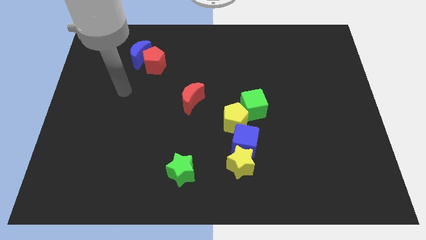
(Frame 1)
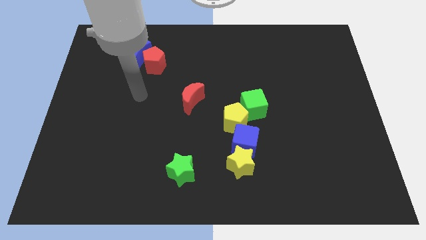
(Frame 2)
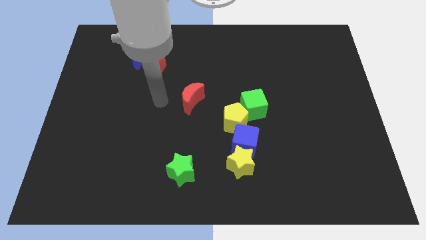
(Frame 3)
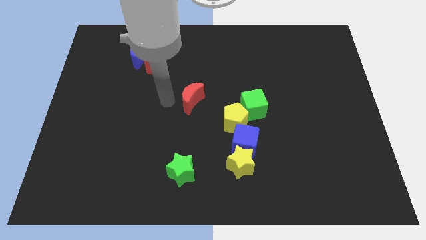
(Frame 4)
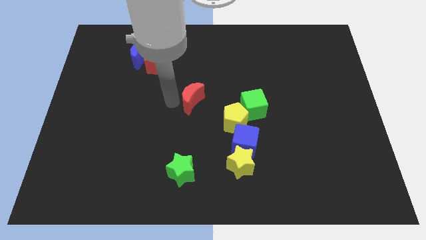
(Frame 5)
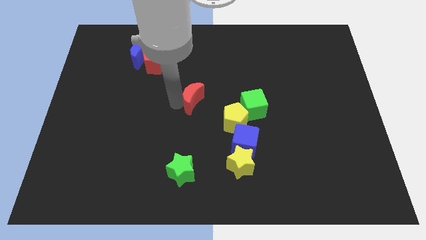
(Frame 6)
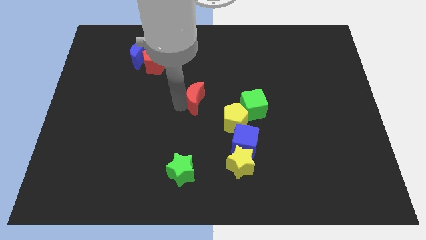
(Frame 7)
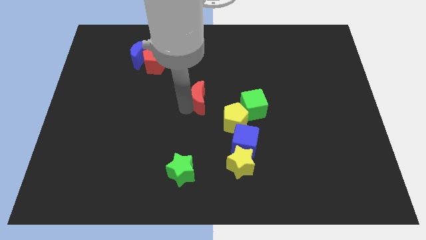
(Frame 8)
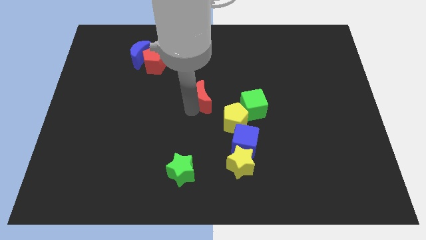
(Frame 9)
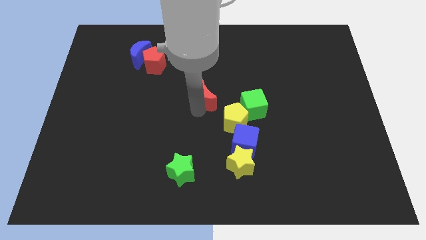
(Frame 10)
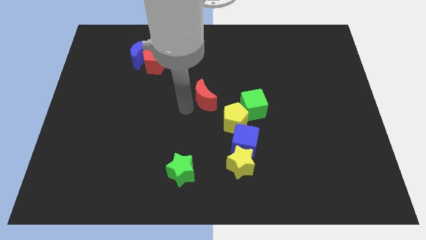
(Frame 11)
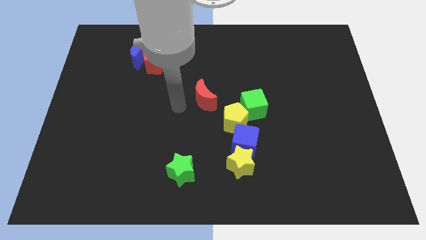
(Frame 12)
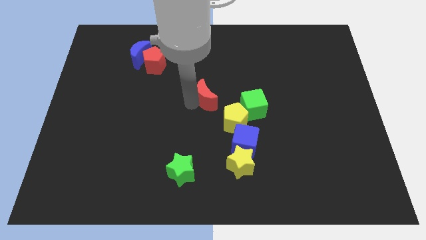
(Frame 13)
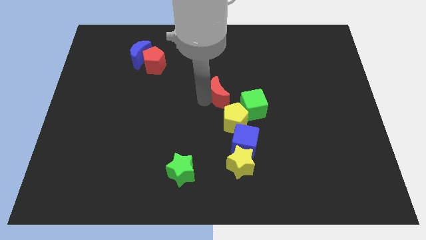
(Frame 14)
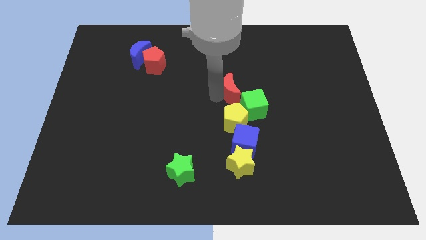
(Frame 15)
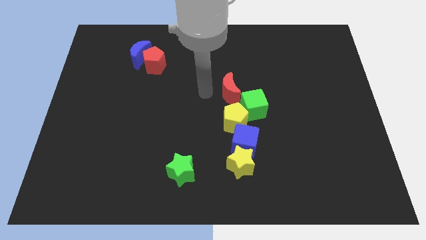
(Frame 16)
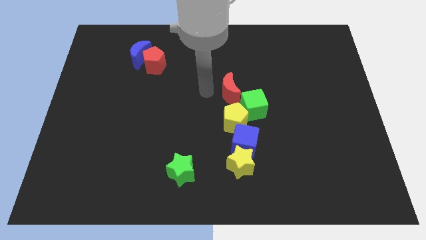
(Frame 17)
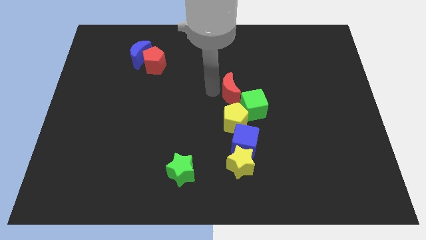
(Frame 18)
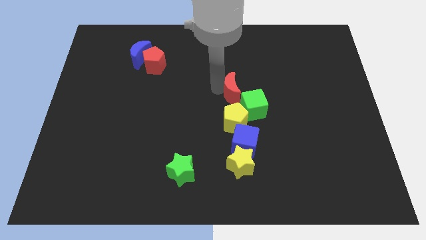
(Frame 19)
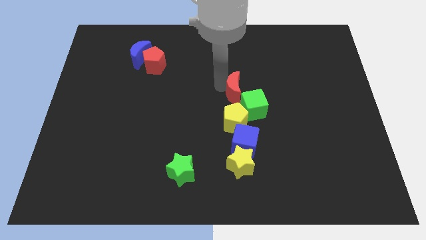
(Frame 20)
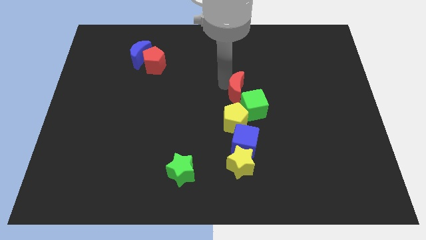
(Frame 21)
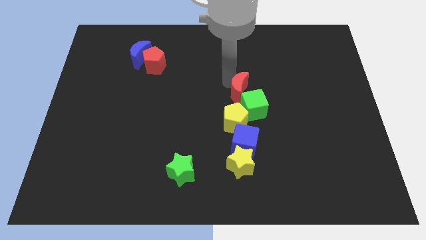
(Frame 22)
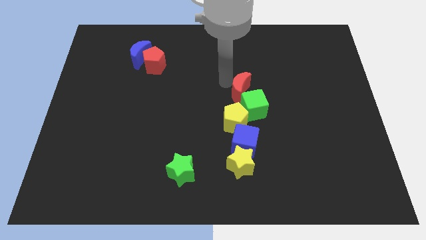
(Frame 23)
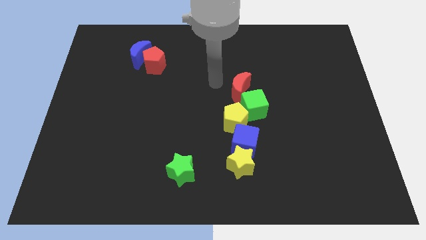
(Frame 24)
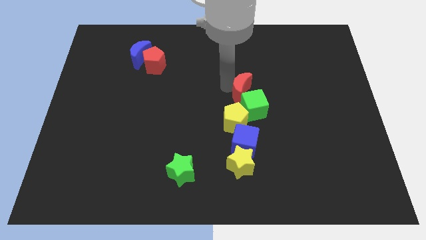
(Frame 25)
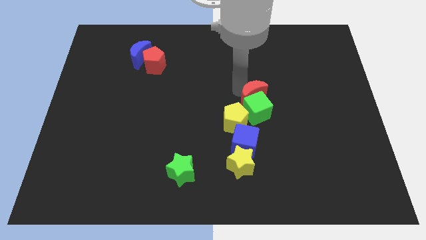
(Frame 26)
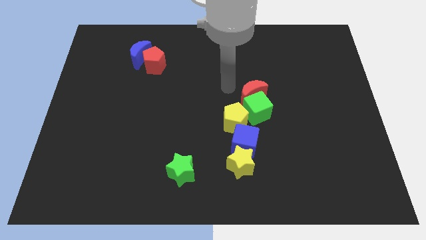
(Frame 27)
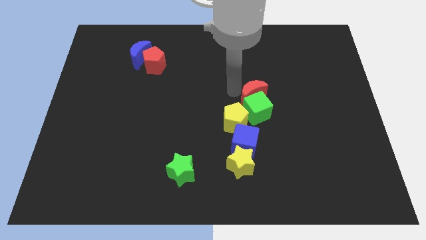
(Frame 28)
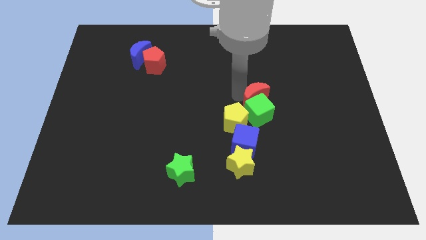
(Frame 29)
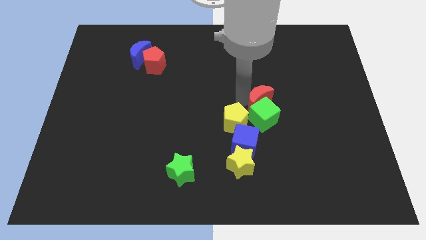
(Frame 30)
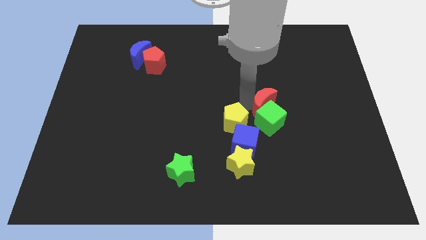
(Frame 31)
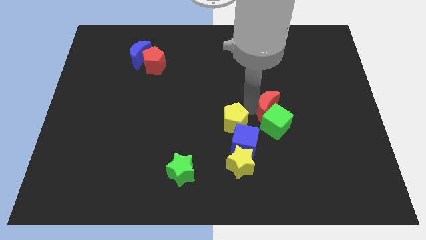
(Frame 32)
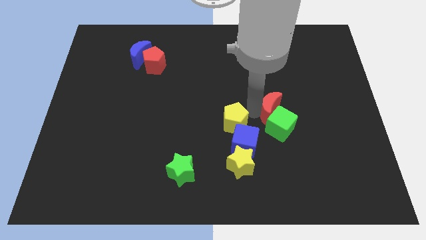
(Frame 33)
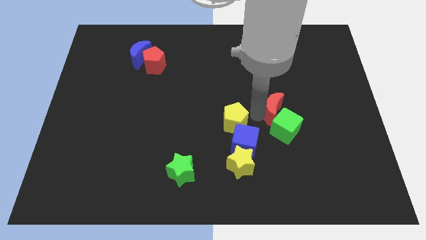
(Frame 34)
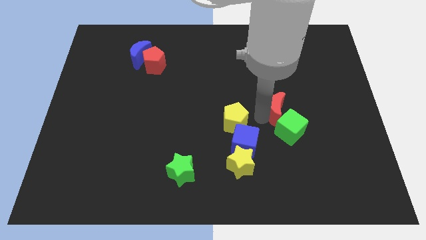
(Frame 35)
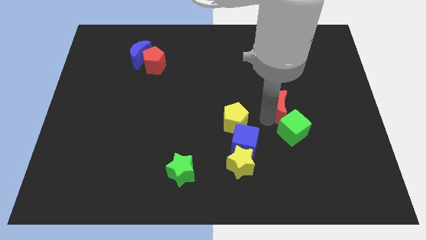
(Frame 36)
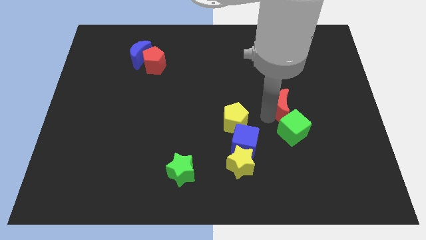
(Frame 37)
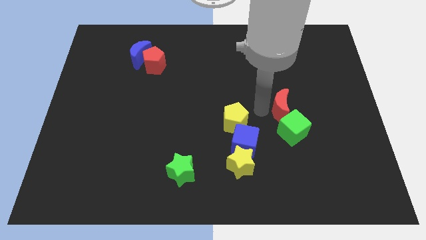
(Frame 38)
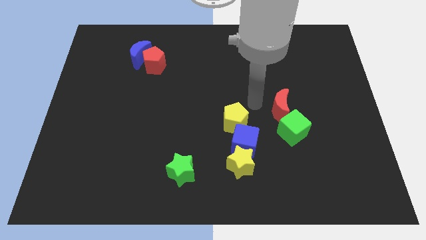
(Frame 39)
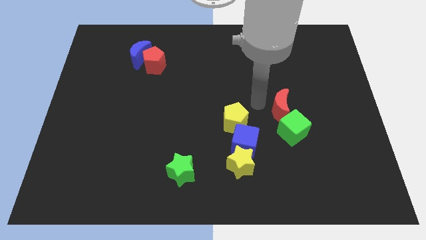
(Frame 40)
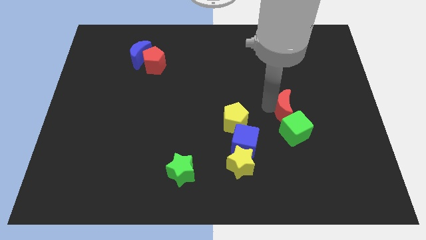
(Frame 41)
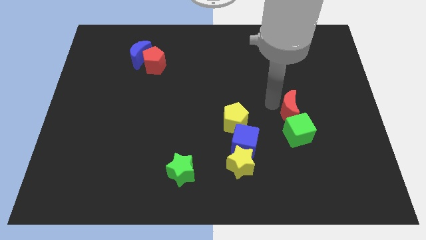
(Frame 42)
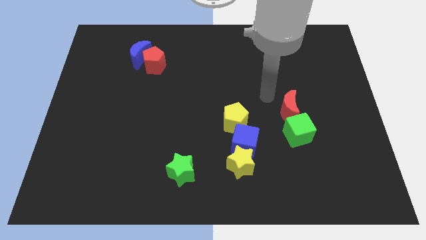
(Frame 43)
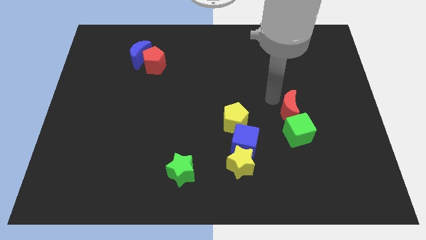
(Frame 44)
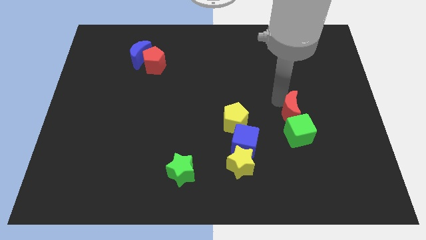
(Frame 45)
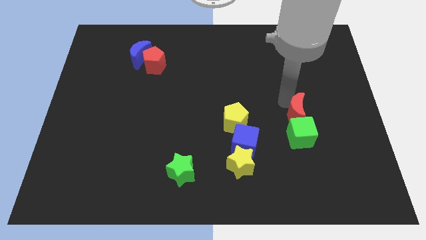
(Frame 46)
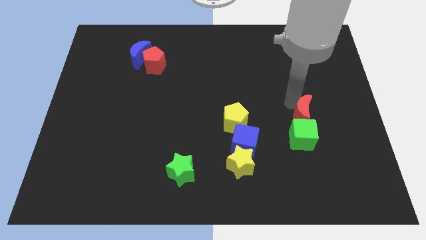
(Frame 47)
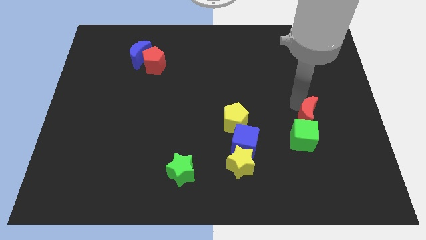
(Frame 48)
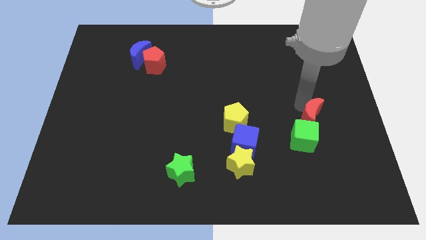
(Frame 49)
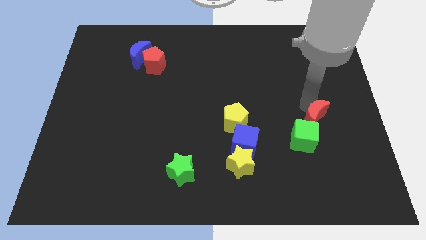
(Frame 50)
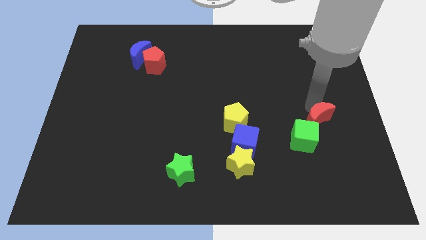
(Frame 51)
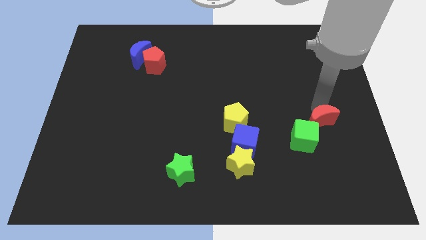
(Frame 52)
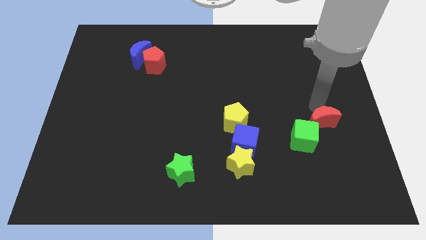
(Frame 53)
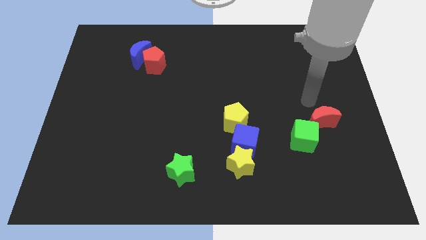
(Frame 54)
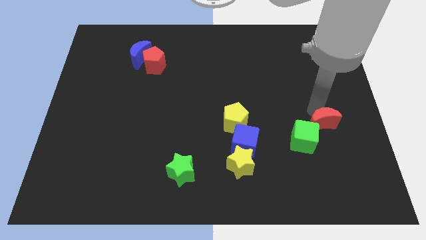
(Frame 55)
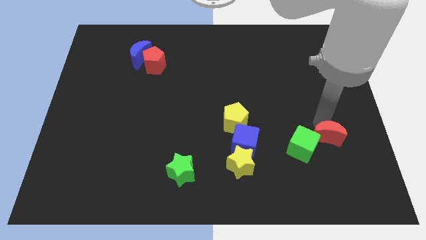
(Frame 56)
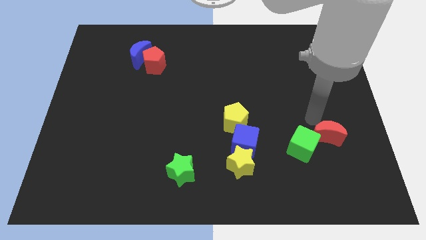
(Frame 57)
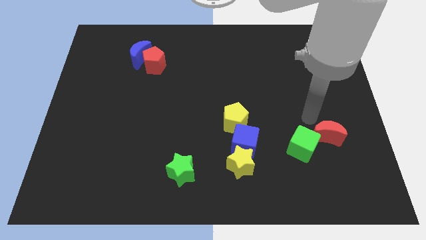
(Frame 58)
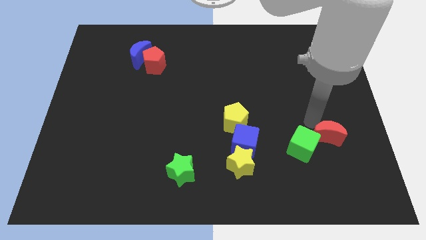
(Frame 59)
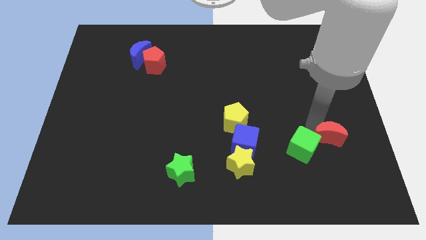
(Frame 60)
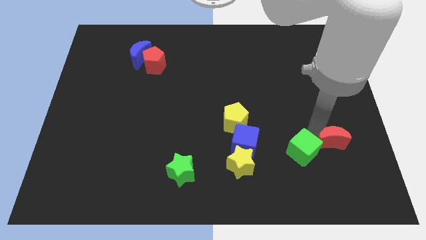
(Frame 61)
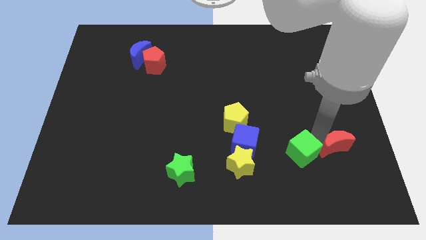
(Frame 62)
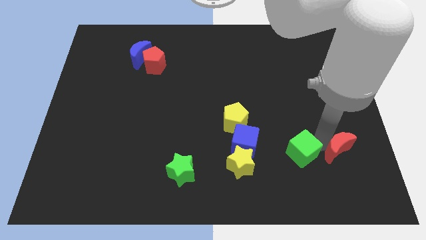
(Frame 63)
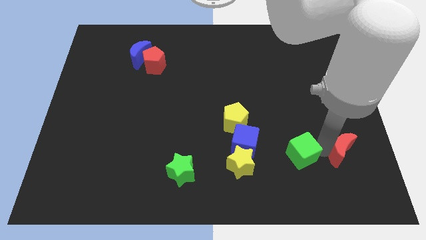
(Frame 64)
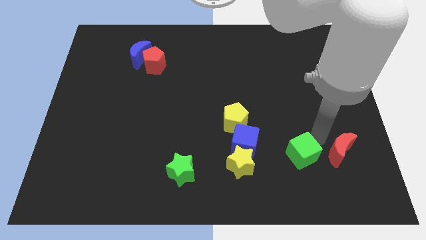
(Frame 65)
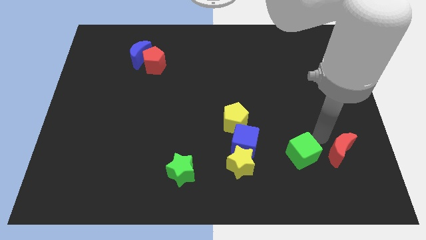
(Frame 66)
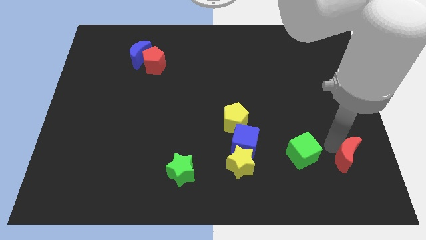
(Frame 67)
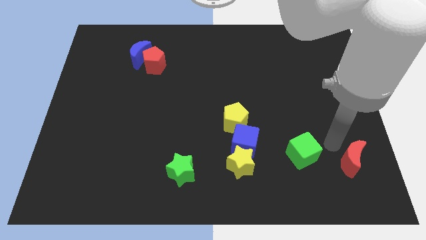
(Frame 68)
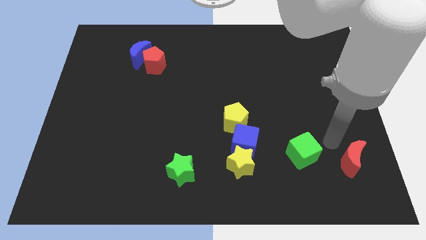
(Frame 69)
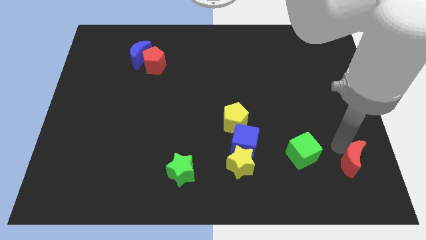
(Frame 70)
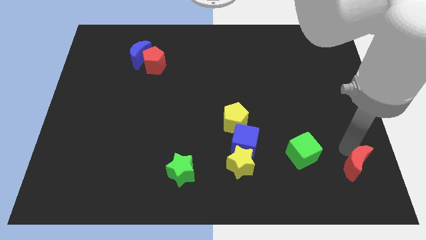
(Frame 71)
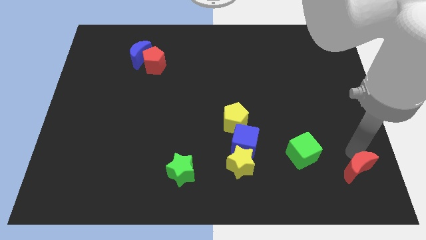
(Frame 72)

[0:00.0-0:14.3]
put the red moon to the bottom right corner
